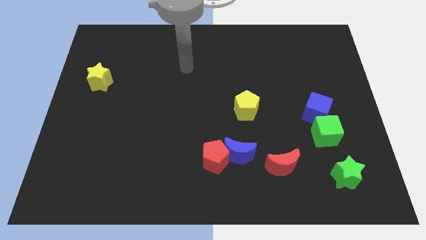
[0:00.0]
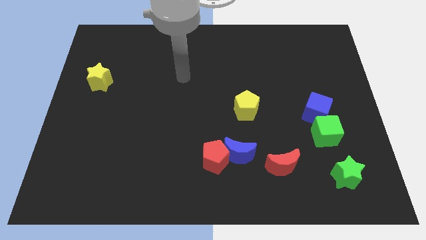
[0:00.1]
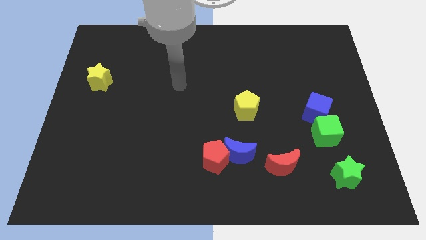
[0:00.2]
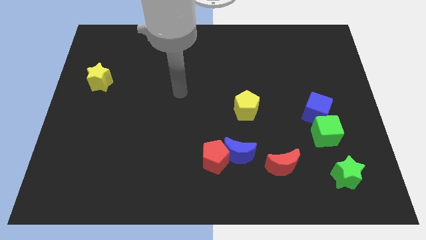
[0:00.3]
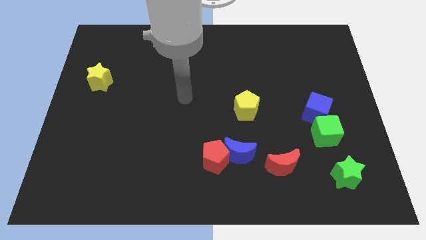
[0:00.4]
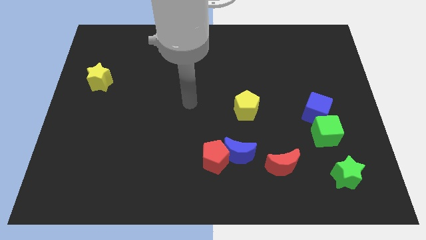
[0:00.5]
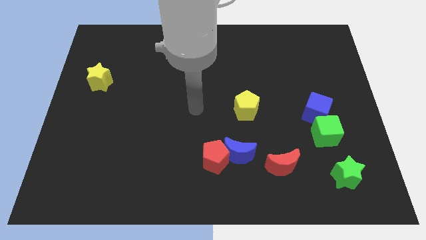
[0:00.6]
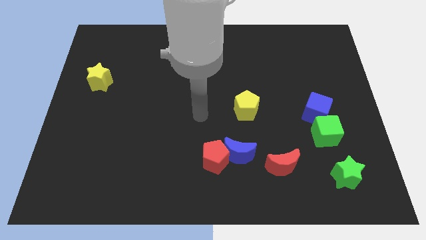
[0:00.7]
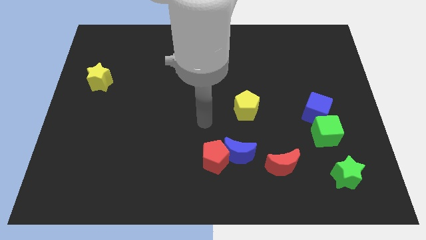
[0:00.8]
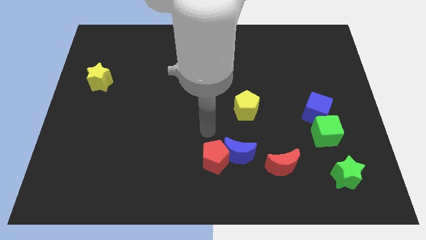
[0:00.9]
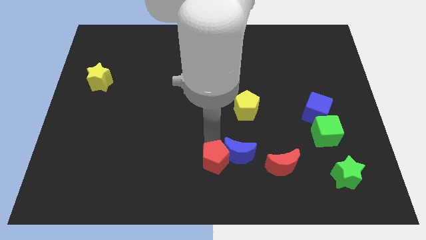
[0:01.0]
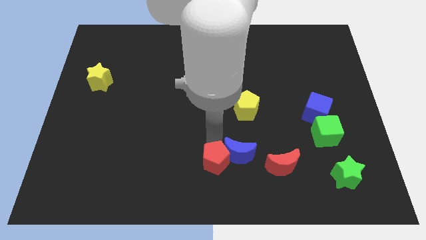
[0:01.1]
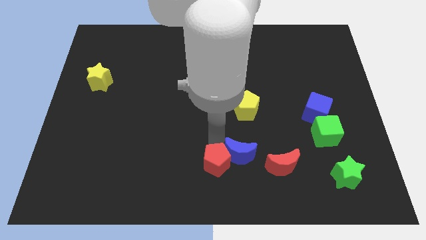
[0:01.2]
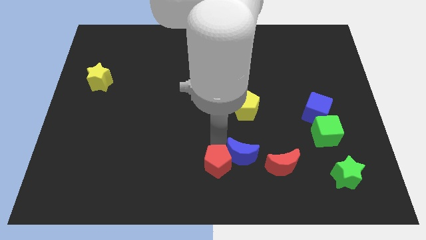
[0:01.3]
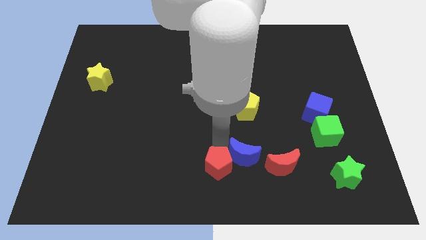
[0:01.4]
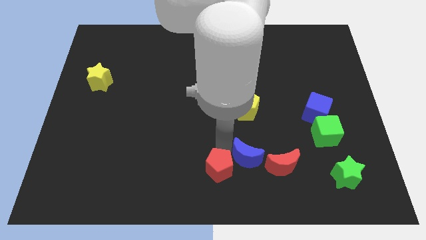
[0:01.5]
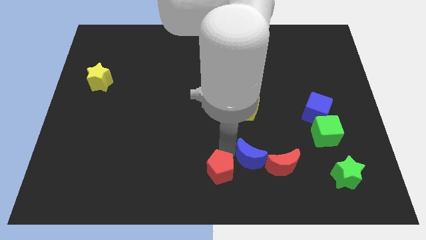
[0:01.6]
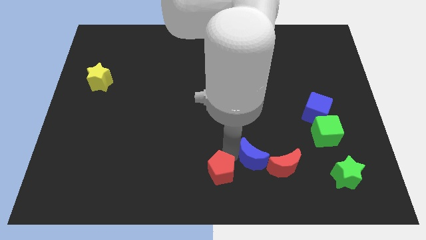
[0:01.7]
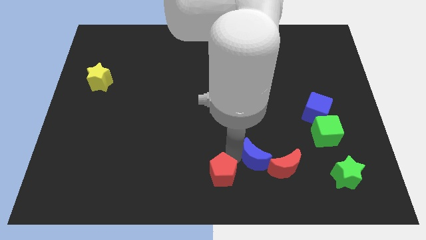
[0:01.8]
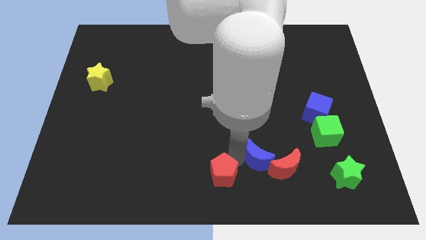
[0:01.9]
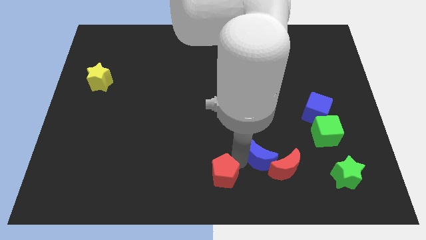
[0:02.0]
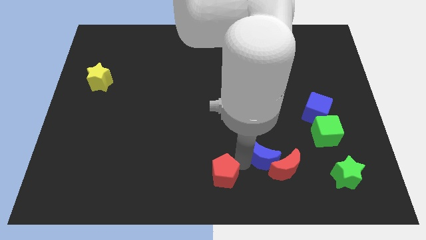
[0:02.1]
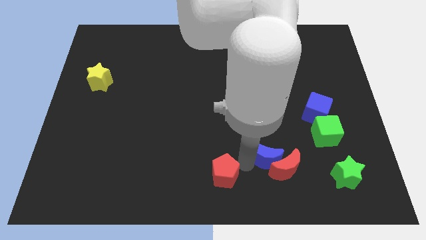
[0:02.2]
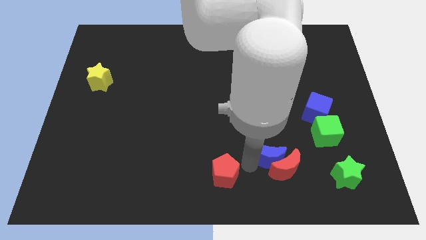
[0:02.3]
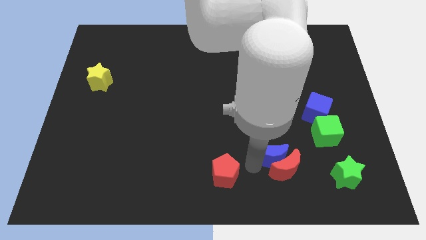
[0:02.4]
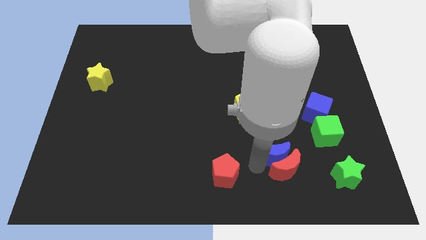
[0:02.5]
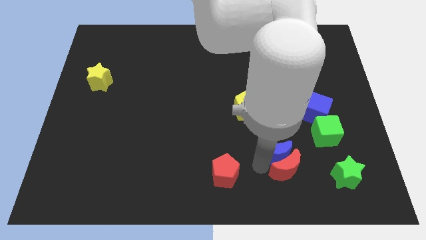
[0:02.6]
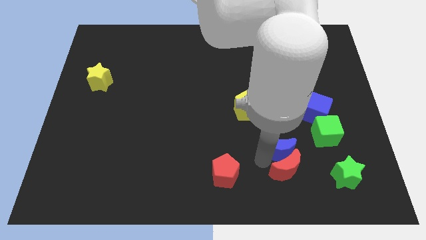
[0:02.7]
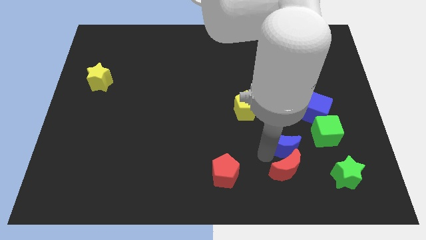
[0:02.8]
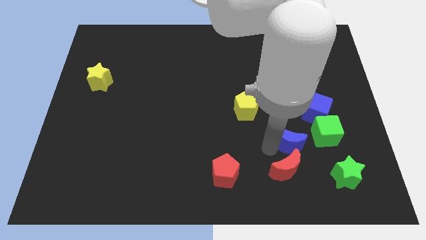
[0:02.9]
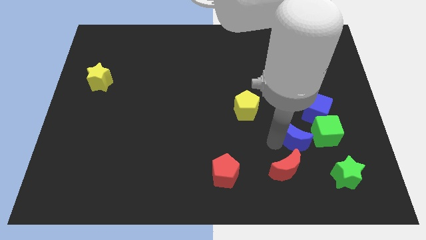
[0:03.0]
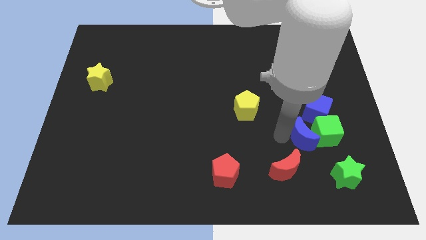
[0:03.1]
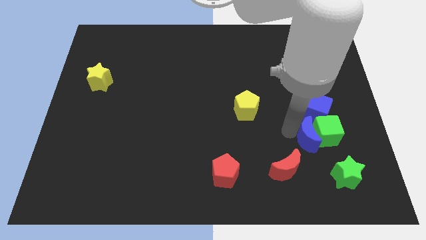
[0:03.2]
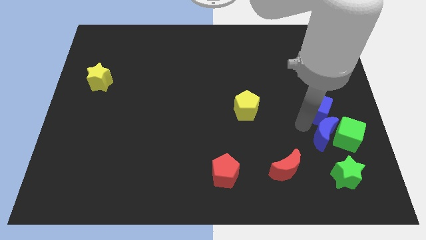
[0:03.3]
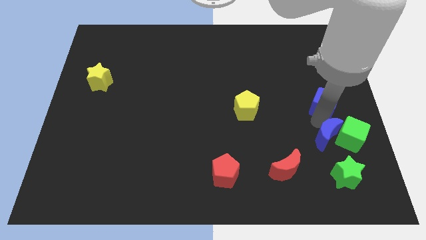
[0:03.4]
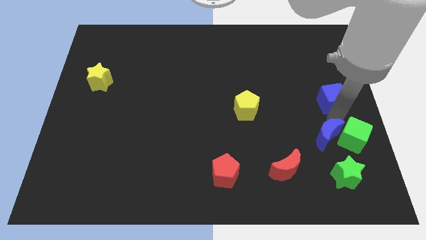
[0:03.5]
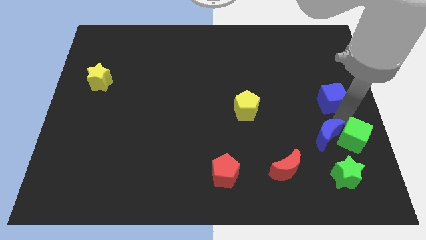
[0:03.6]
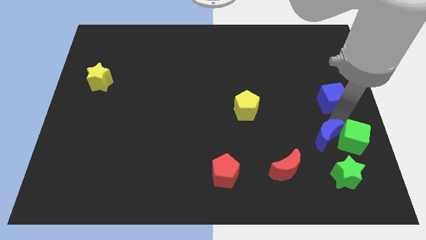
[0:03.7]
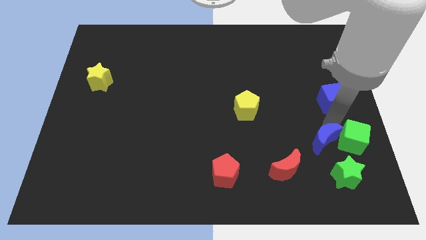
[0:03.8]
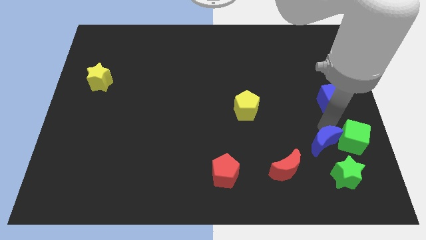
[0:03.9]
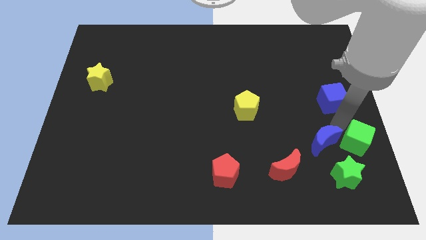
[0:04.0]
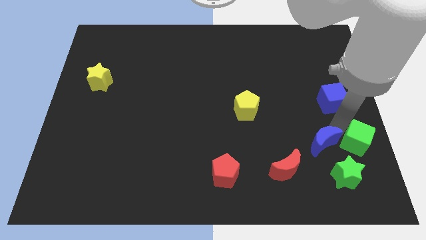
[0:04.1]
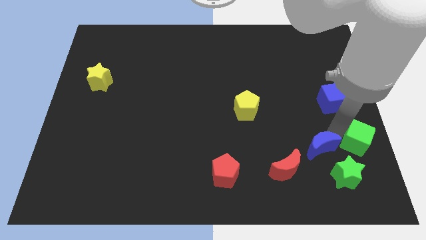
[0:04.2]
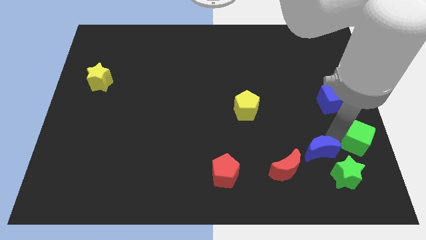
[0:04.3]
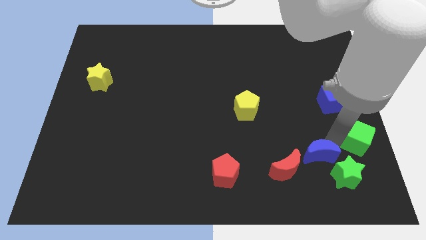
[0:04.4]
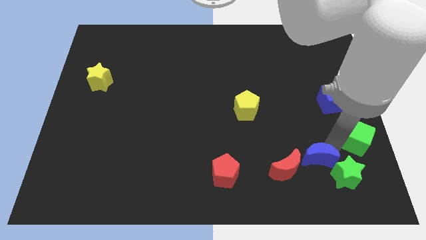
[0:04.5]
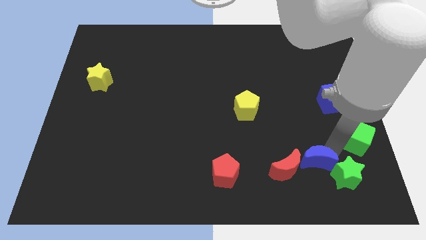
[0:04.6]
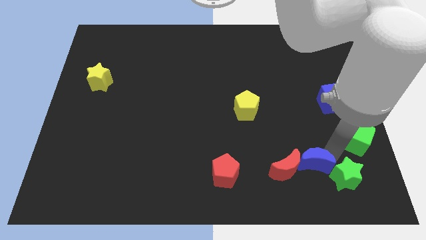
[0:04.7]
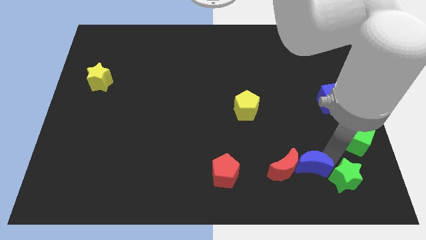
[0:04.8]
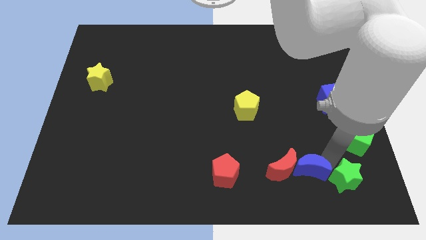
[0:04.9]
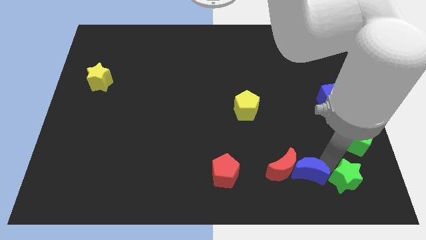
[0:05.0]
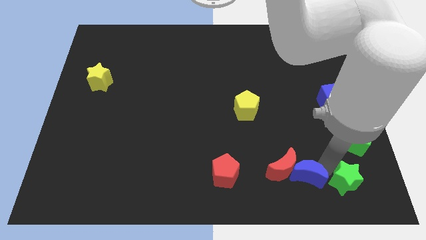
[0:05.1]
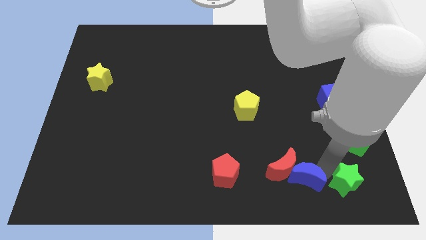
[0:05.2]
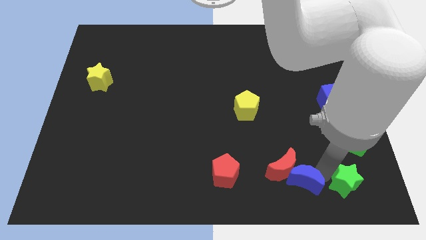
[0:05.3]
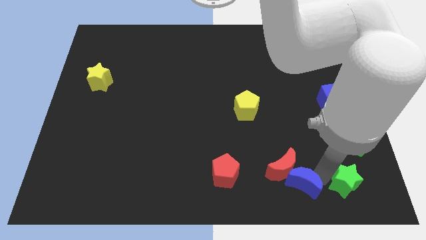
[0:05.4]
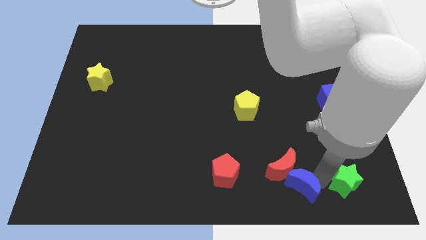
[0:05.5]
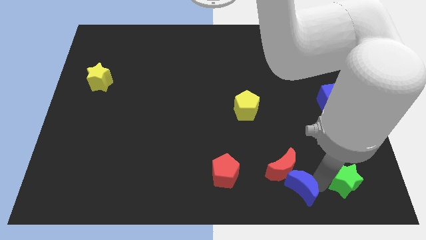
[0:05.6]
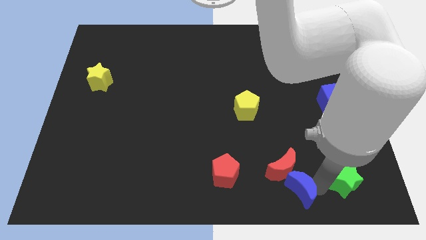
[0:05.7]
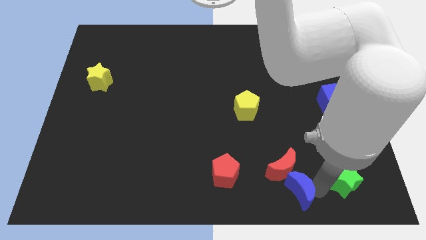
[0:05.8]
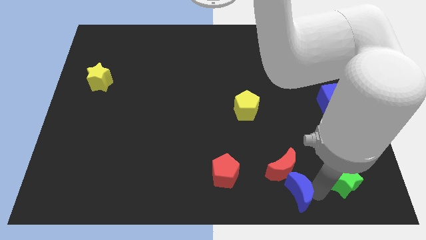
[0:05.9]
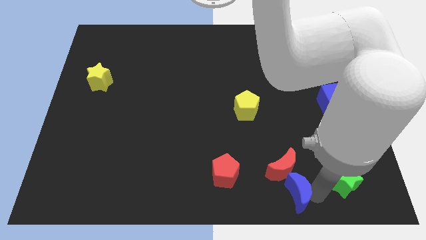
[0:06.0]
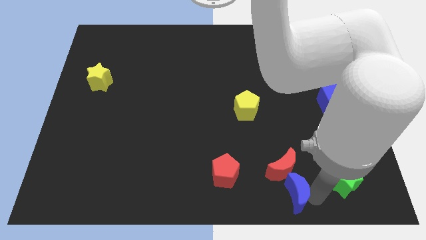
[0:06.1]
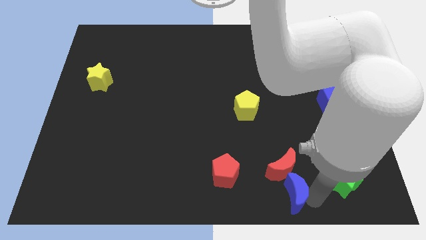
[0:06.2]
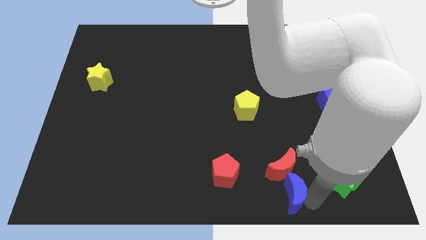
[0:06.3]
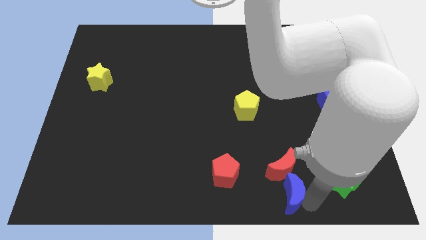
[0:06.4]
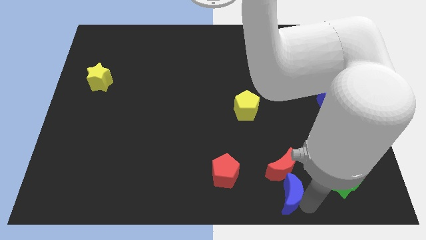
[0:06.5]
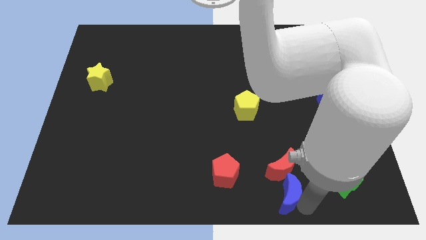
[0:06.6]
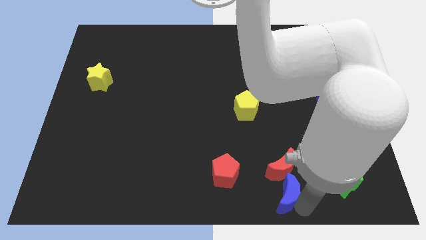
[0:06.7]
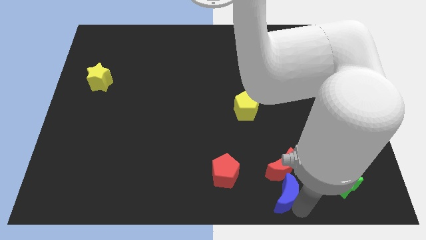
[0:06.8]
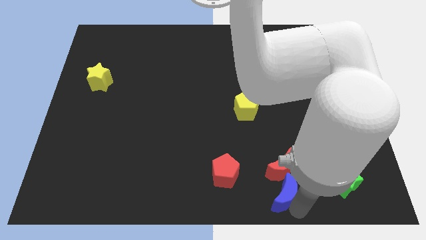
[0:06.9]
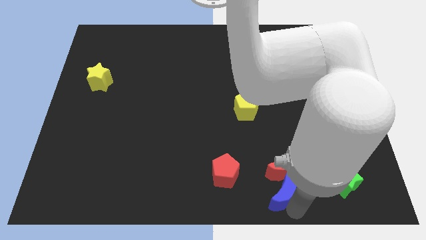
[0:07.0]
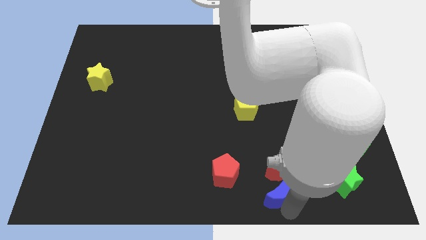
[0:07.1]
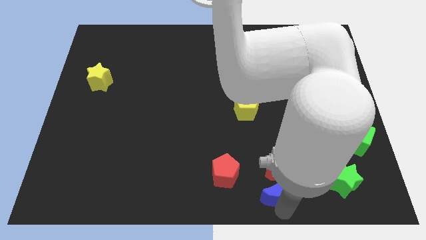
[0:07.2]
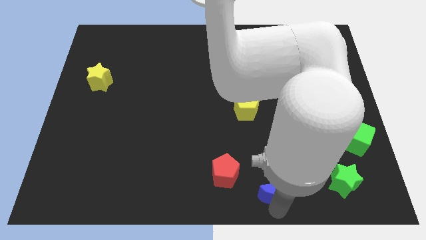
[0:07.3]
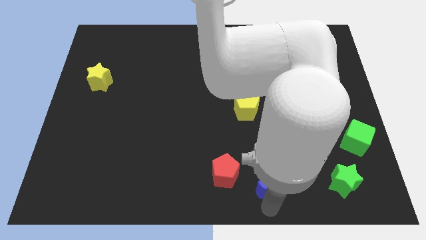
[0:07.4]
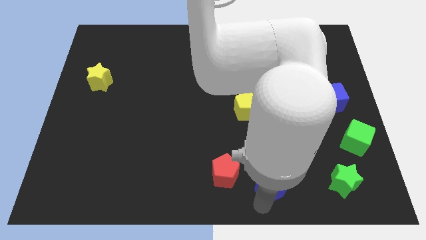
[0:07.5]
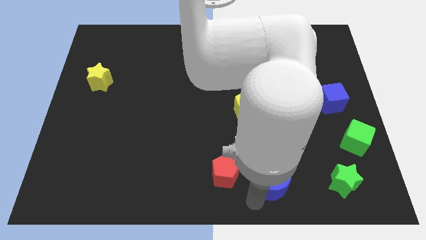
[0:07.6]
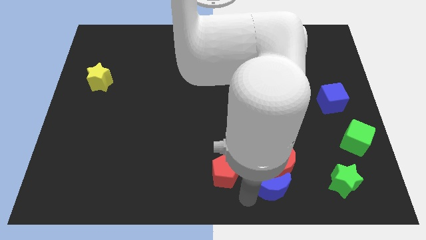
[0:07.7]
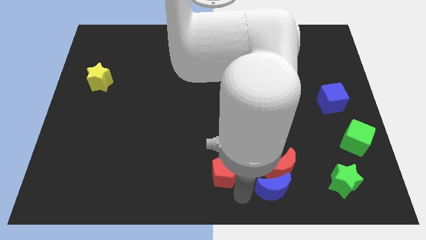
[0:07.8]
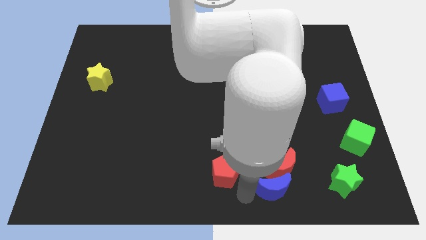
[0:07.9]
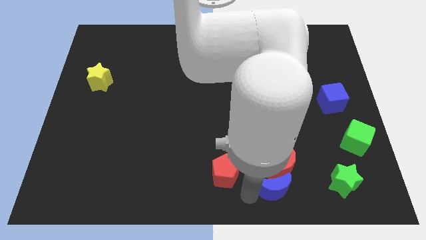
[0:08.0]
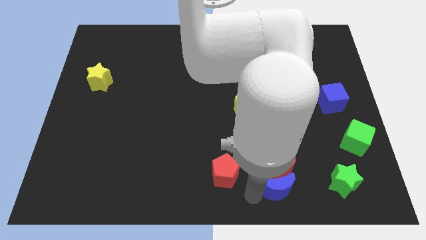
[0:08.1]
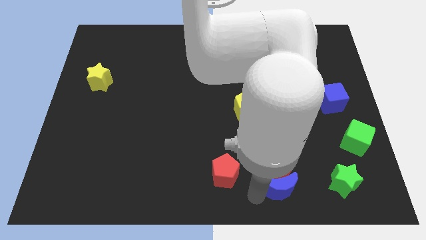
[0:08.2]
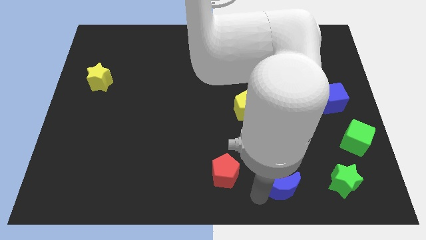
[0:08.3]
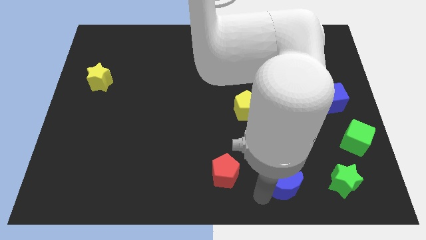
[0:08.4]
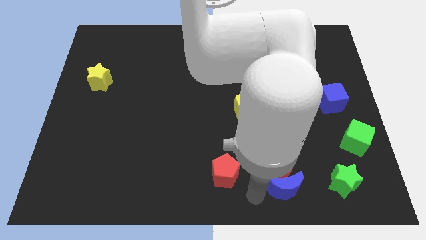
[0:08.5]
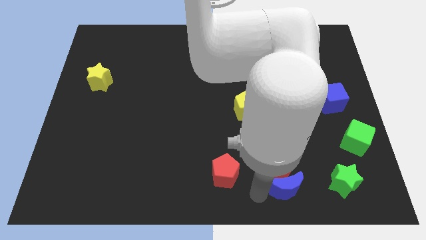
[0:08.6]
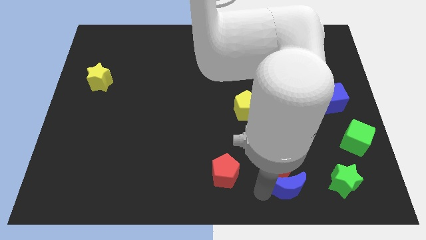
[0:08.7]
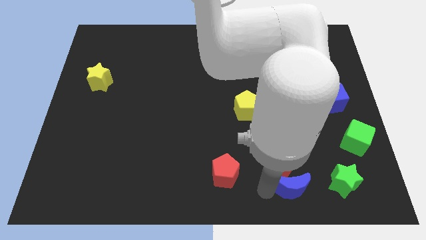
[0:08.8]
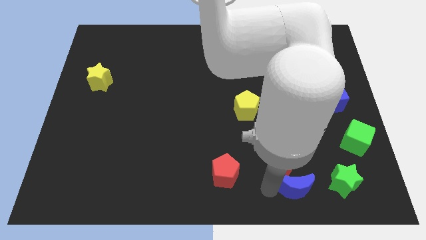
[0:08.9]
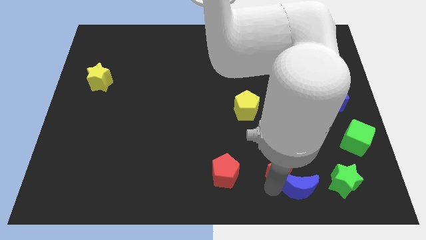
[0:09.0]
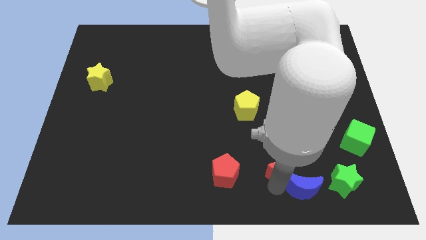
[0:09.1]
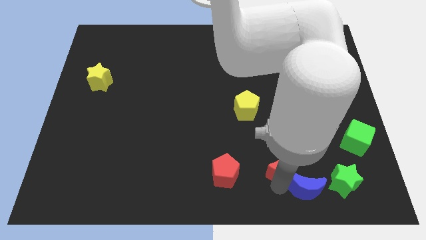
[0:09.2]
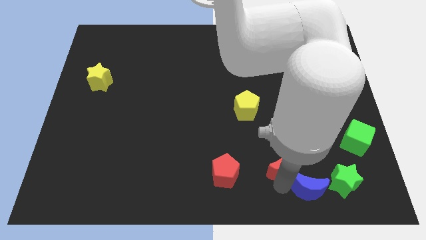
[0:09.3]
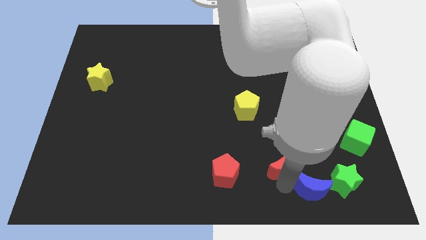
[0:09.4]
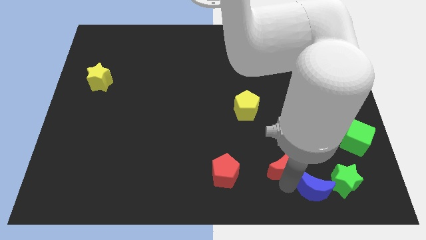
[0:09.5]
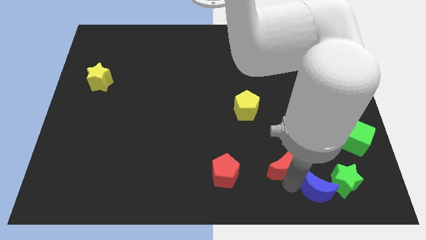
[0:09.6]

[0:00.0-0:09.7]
move the blue moon towards the green star
